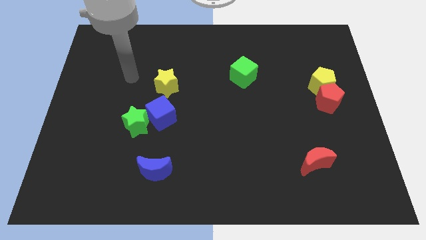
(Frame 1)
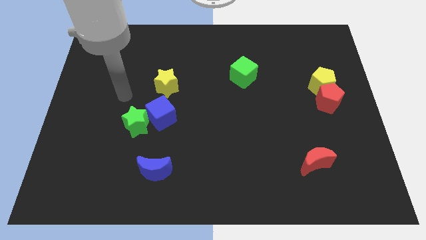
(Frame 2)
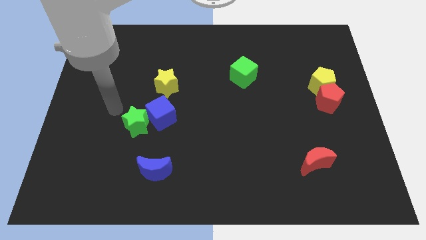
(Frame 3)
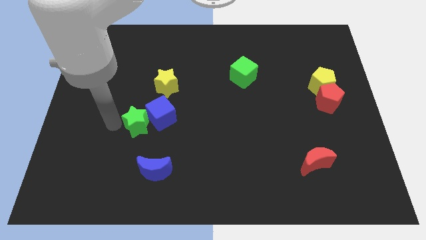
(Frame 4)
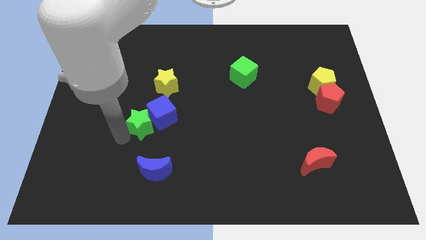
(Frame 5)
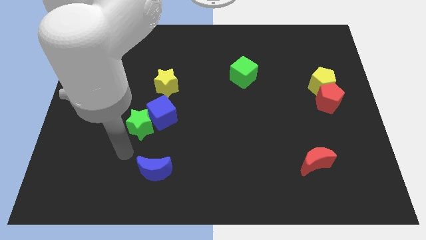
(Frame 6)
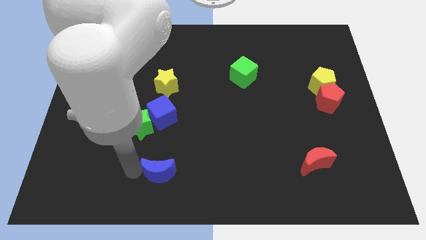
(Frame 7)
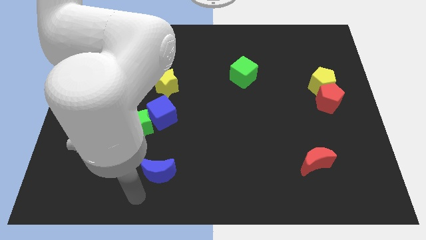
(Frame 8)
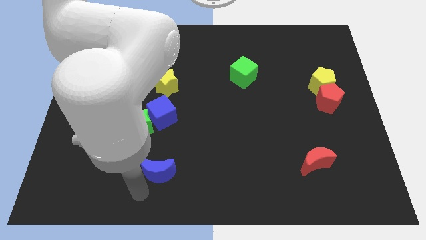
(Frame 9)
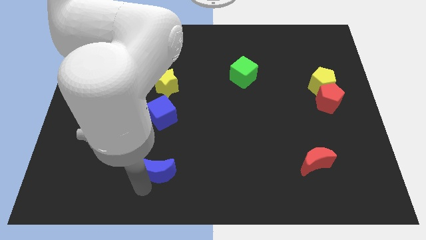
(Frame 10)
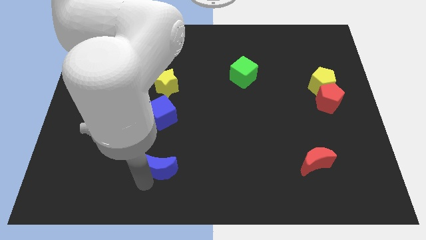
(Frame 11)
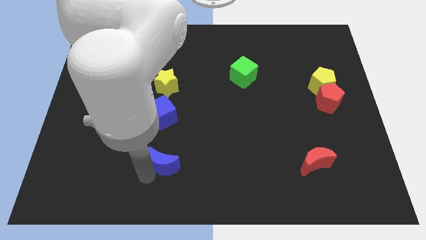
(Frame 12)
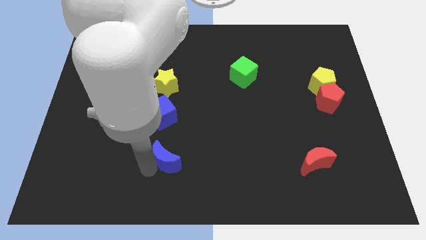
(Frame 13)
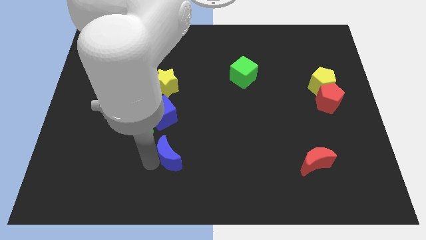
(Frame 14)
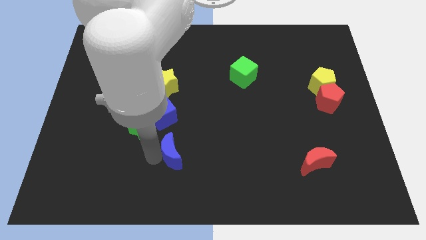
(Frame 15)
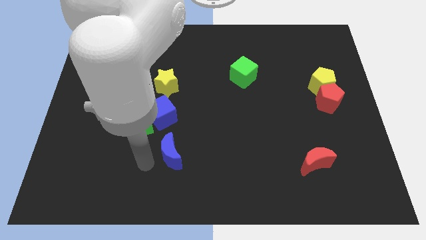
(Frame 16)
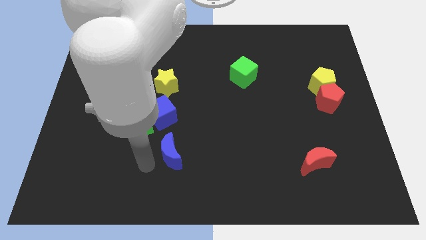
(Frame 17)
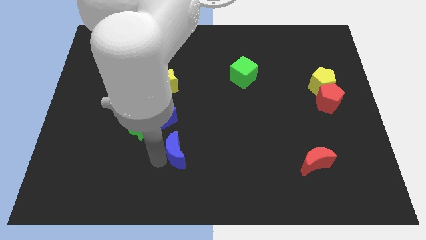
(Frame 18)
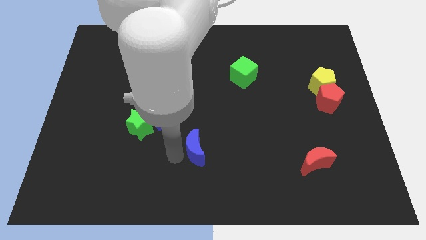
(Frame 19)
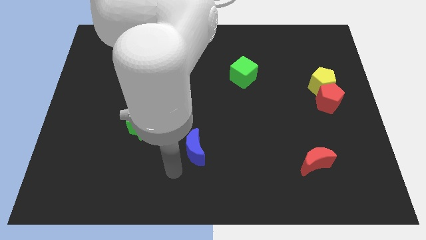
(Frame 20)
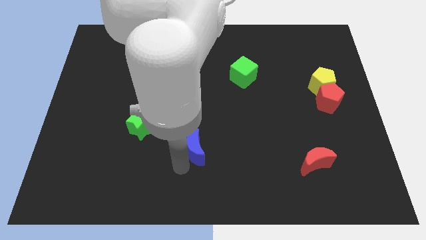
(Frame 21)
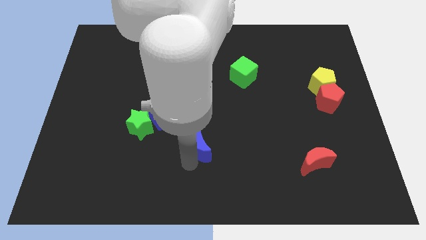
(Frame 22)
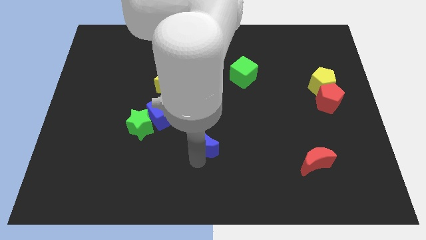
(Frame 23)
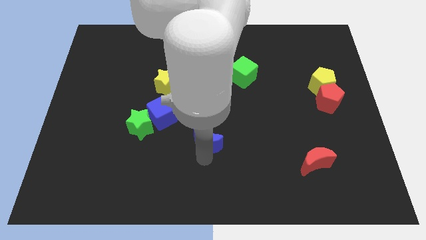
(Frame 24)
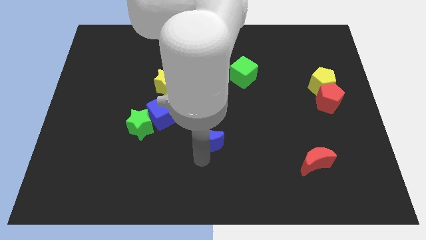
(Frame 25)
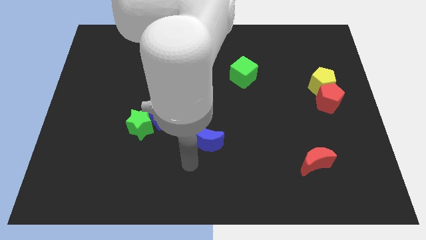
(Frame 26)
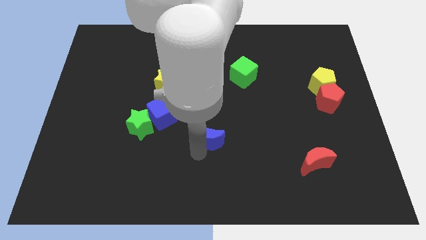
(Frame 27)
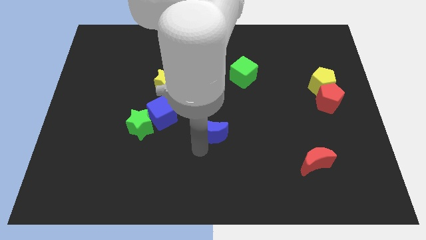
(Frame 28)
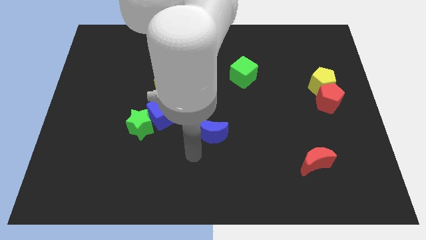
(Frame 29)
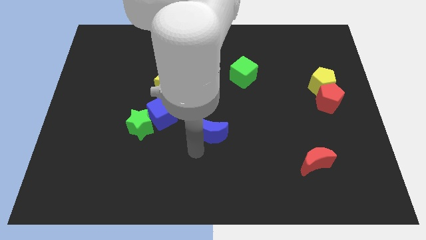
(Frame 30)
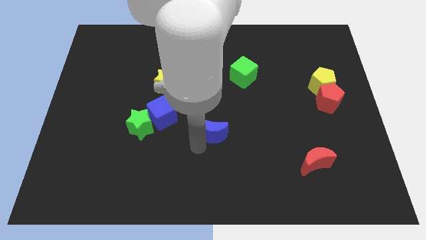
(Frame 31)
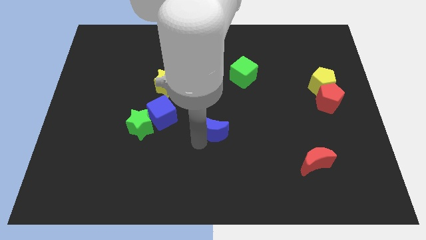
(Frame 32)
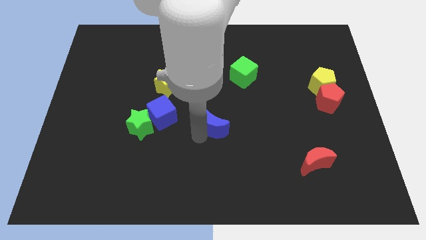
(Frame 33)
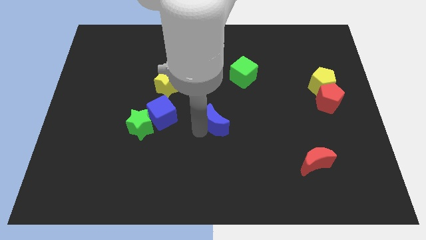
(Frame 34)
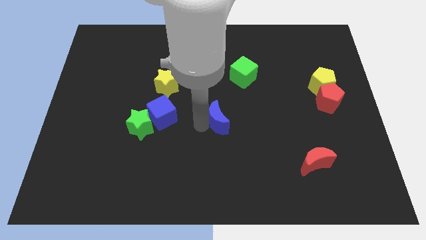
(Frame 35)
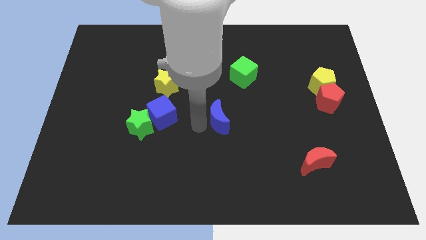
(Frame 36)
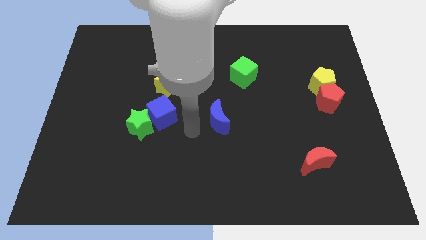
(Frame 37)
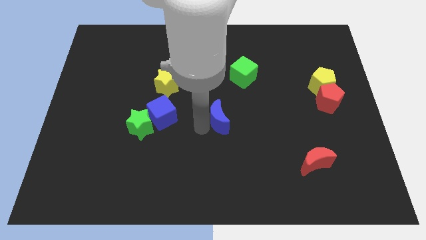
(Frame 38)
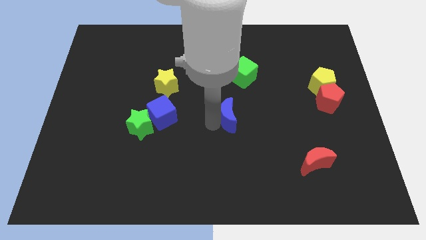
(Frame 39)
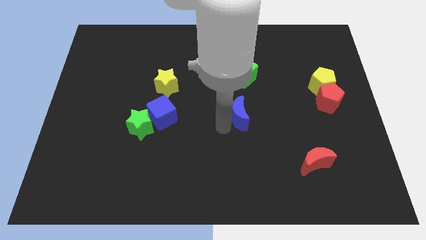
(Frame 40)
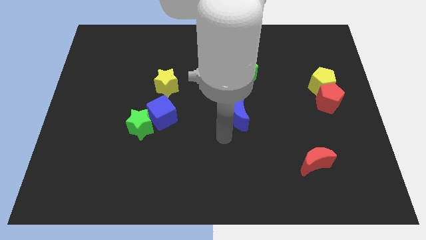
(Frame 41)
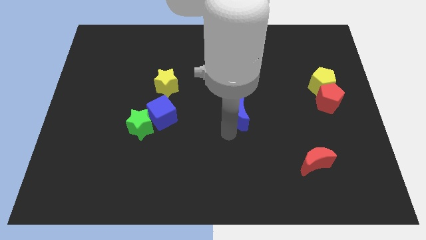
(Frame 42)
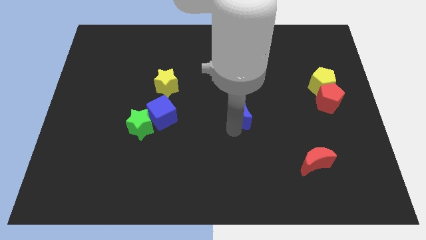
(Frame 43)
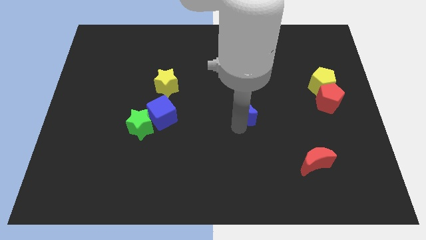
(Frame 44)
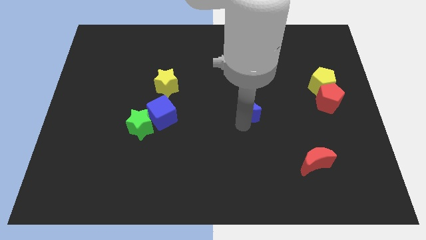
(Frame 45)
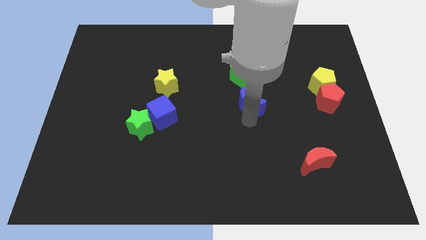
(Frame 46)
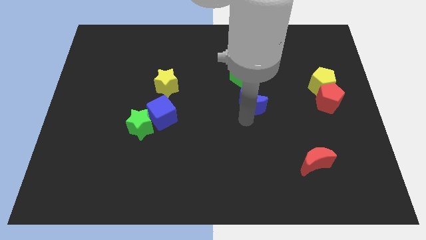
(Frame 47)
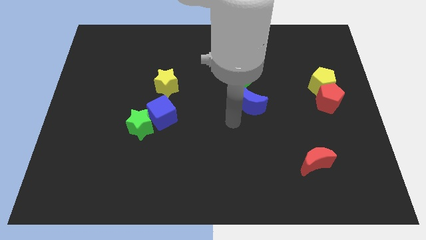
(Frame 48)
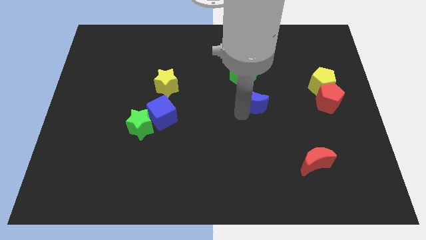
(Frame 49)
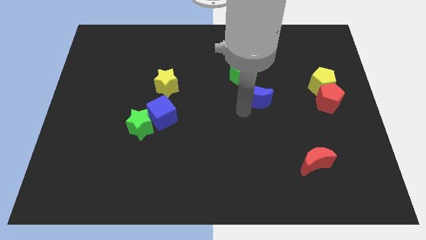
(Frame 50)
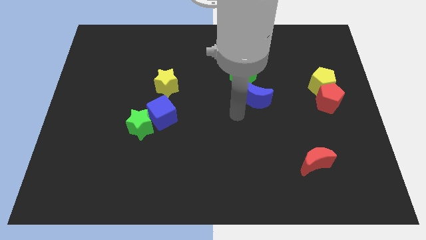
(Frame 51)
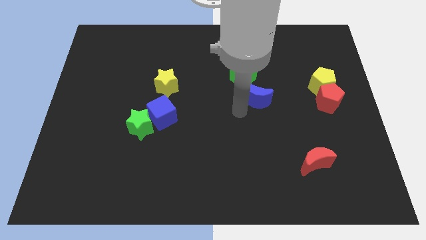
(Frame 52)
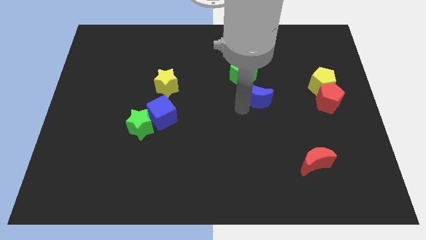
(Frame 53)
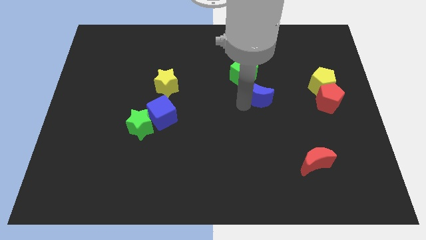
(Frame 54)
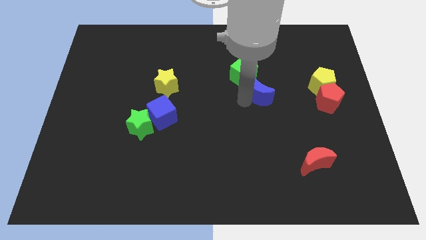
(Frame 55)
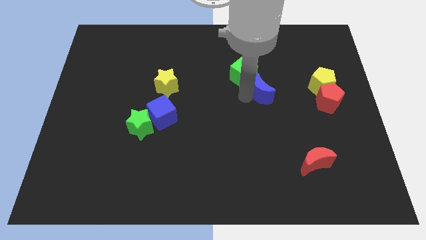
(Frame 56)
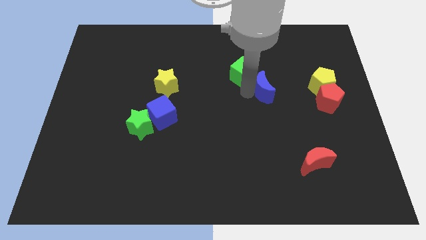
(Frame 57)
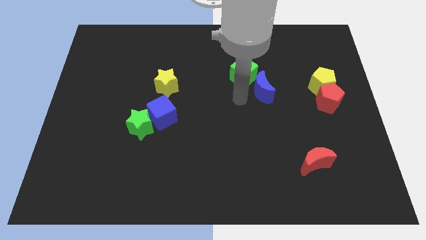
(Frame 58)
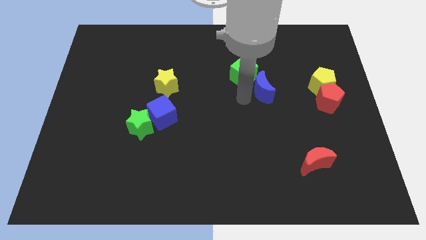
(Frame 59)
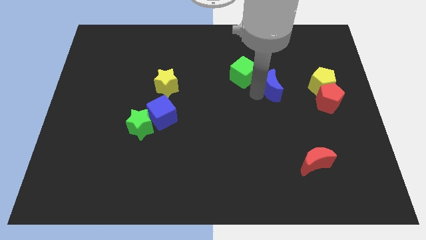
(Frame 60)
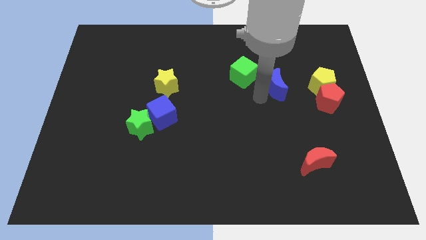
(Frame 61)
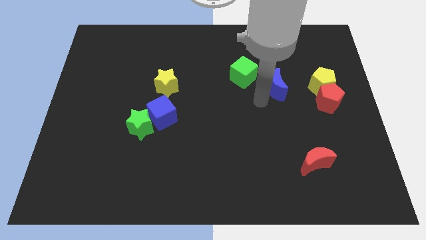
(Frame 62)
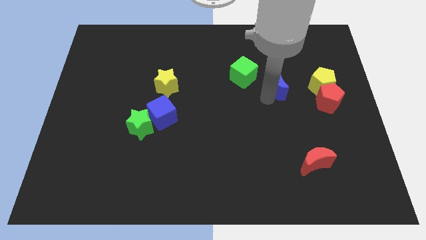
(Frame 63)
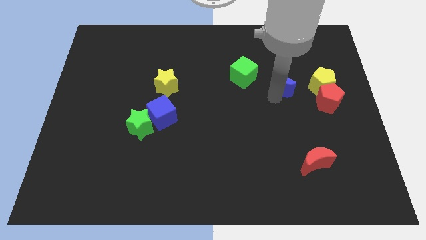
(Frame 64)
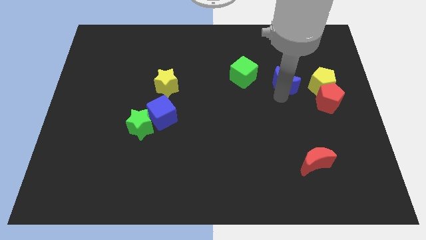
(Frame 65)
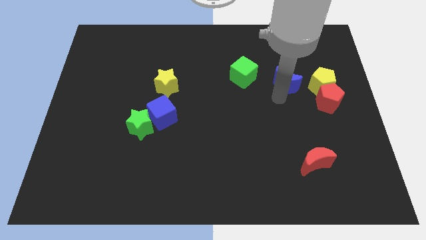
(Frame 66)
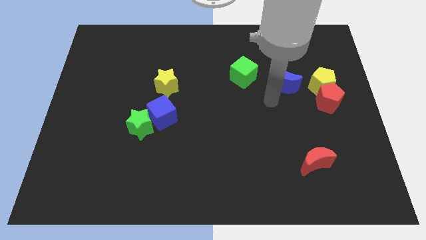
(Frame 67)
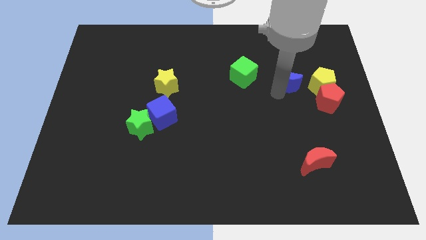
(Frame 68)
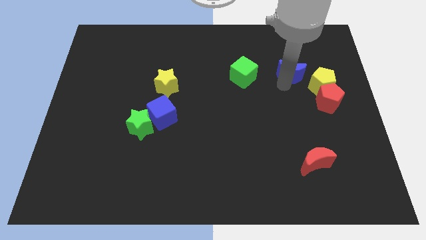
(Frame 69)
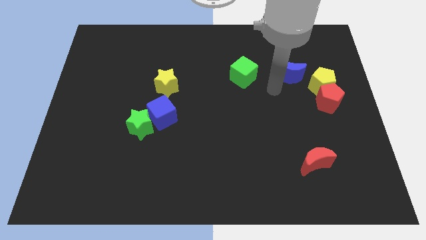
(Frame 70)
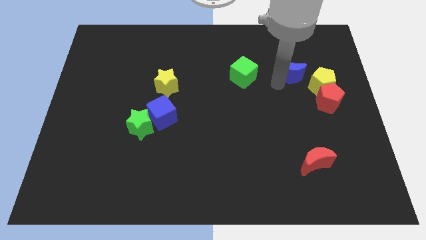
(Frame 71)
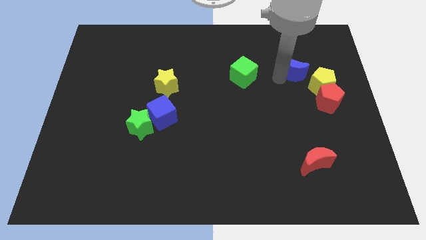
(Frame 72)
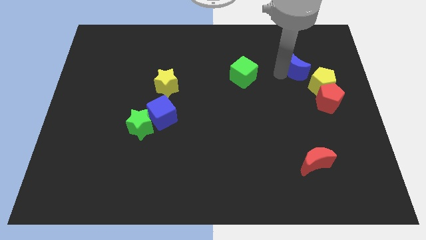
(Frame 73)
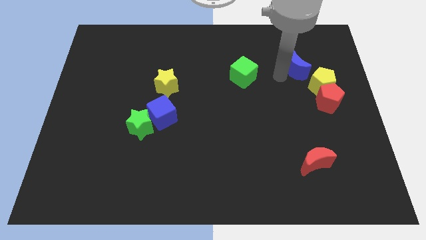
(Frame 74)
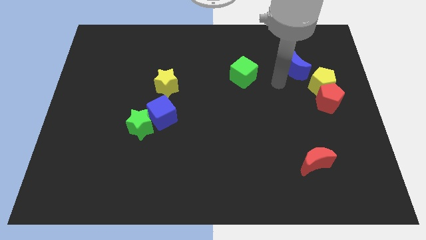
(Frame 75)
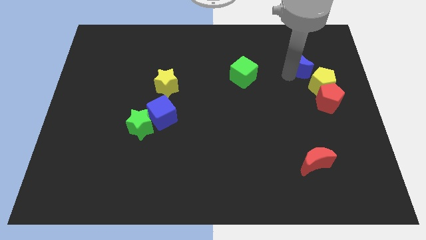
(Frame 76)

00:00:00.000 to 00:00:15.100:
put the blue moon to the top of the yellow pentagon
